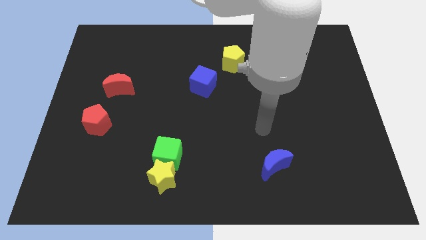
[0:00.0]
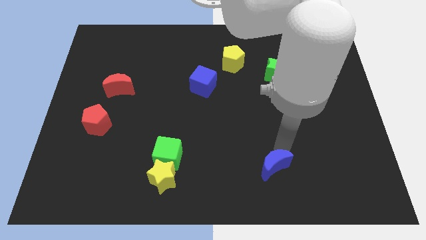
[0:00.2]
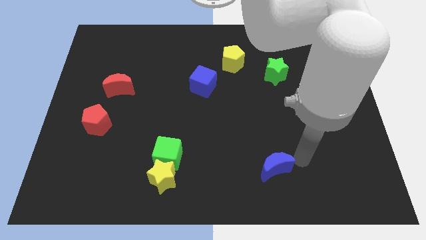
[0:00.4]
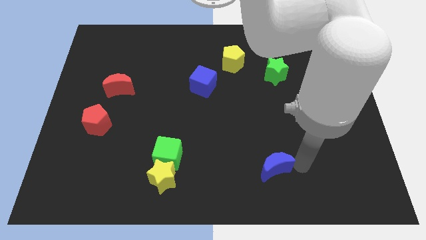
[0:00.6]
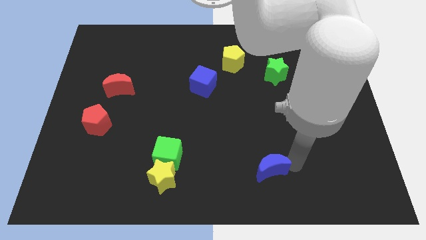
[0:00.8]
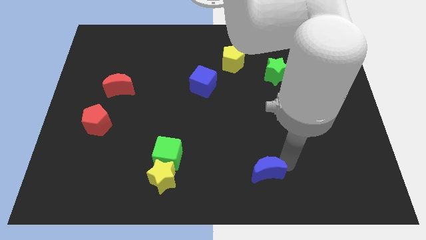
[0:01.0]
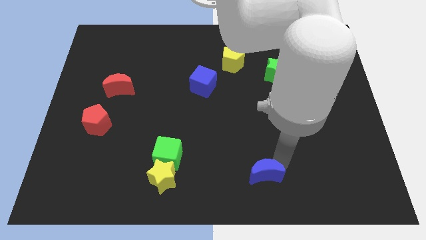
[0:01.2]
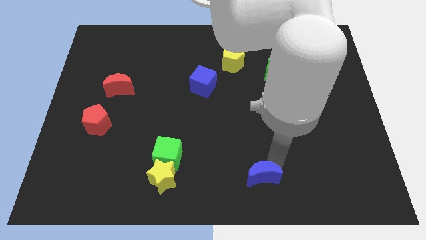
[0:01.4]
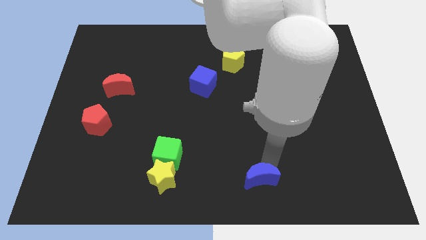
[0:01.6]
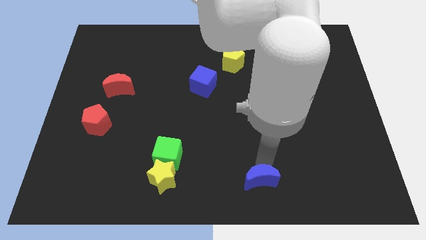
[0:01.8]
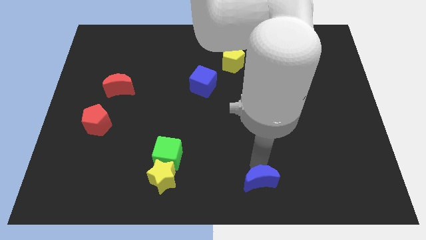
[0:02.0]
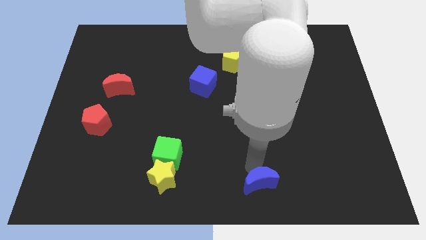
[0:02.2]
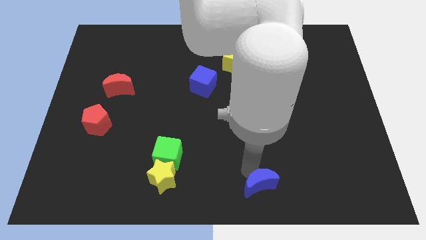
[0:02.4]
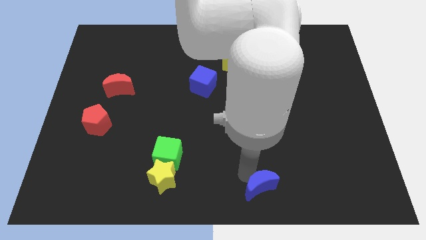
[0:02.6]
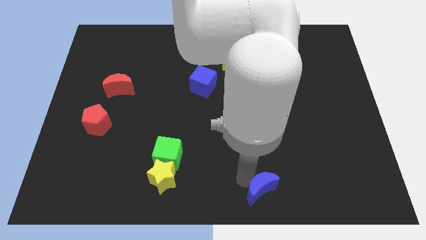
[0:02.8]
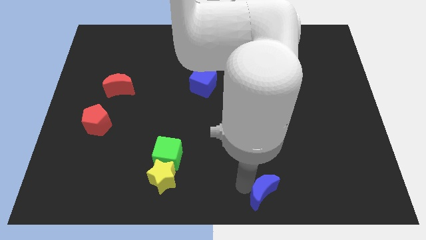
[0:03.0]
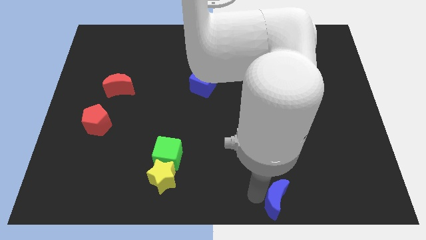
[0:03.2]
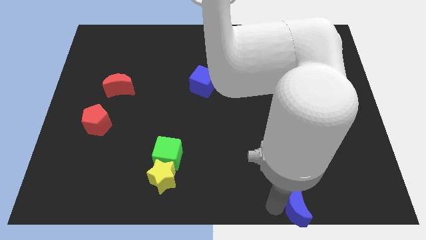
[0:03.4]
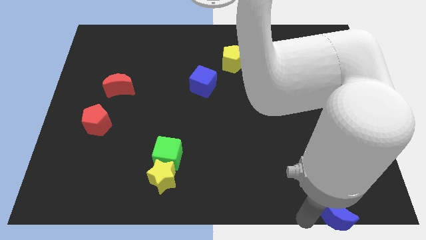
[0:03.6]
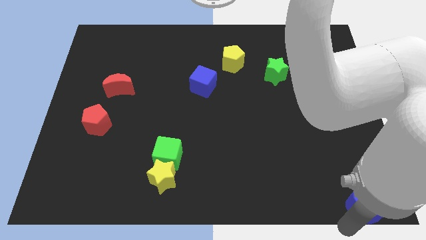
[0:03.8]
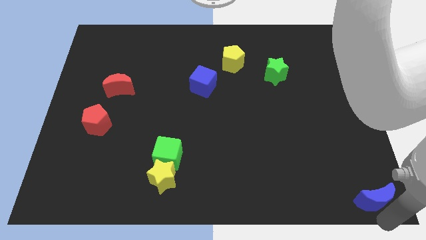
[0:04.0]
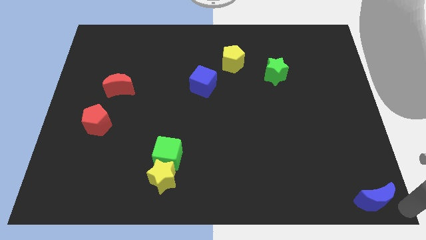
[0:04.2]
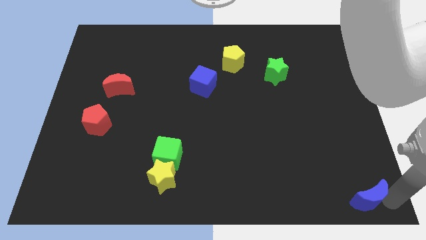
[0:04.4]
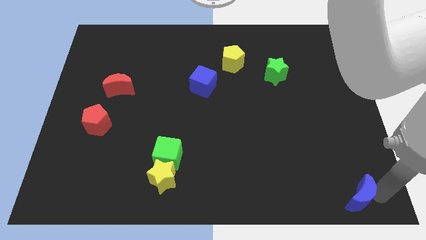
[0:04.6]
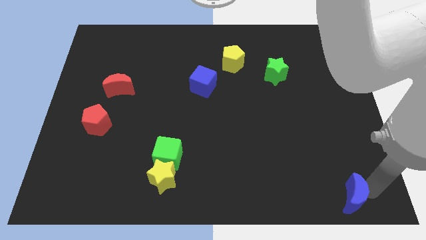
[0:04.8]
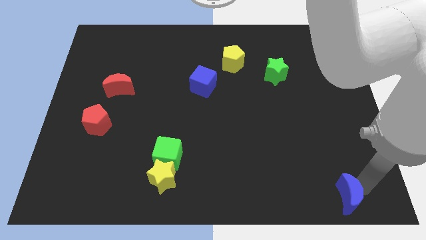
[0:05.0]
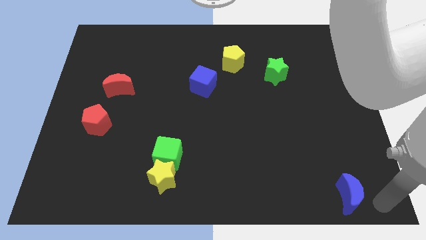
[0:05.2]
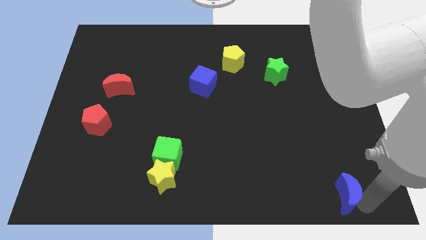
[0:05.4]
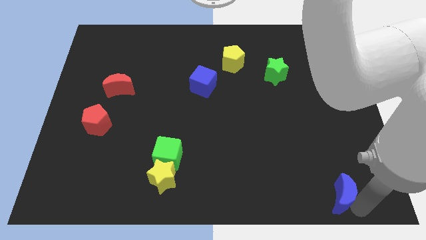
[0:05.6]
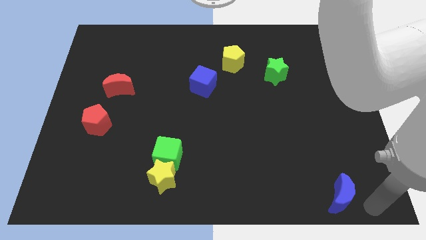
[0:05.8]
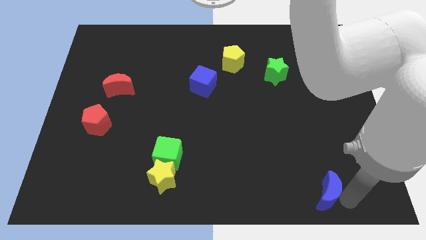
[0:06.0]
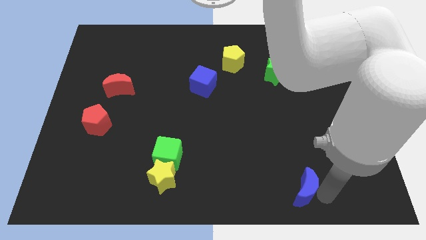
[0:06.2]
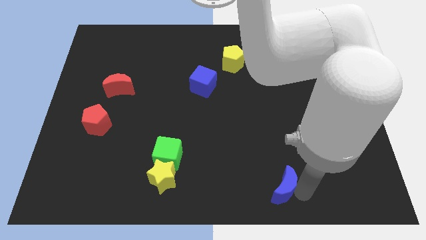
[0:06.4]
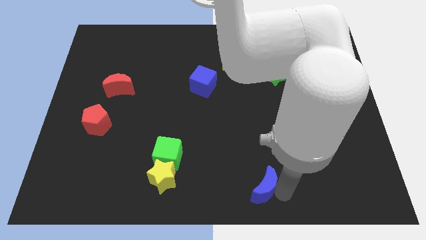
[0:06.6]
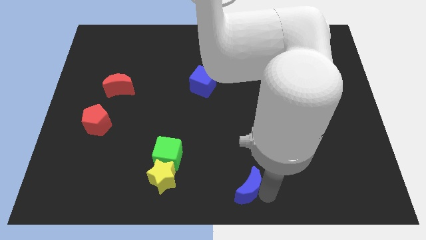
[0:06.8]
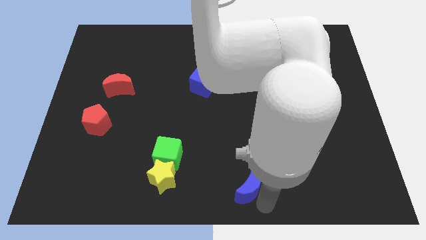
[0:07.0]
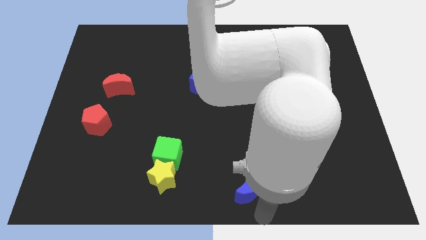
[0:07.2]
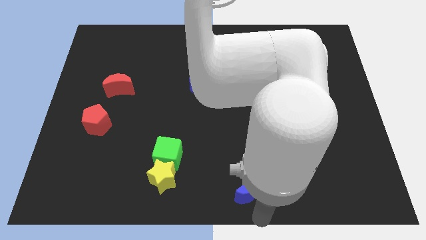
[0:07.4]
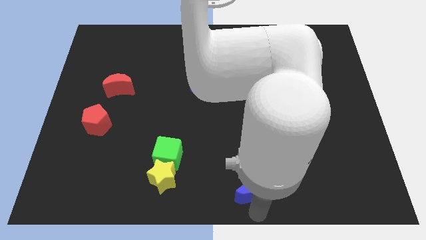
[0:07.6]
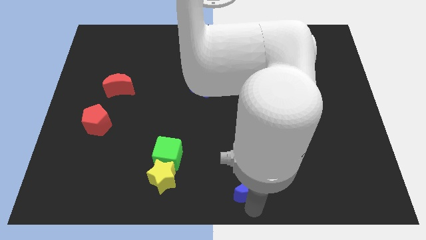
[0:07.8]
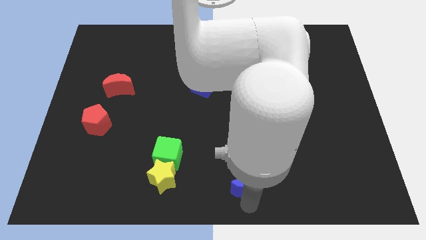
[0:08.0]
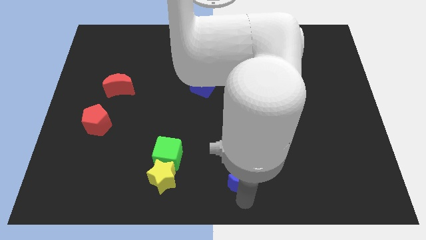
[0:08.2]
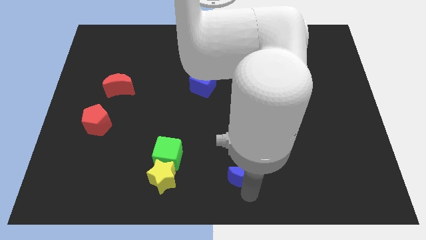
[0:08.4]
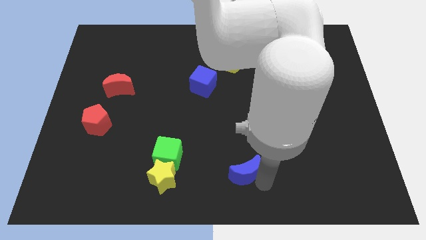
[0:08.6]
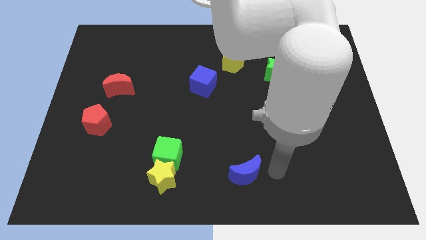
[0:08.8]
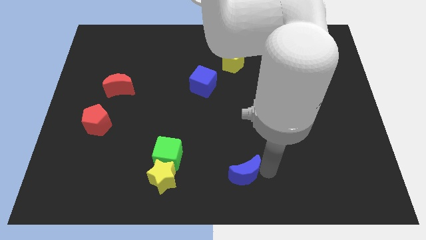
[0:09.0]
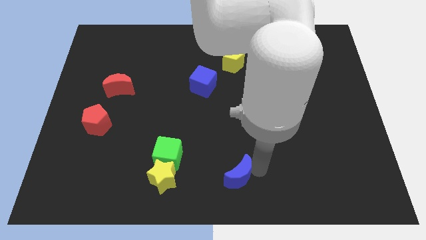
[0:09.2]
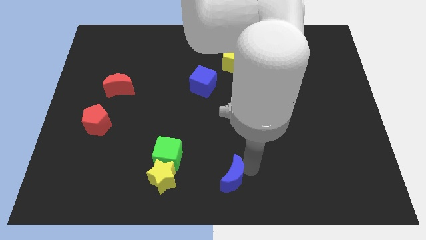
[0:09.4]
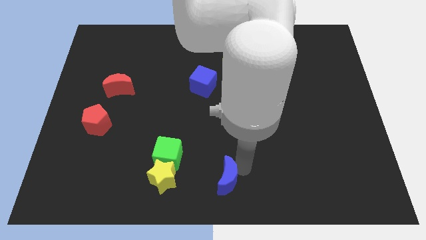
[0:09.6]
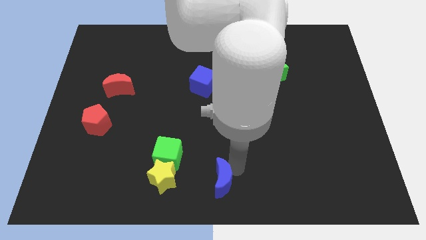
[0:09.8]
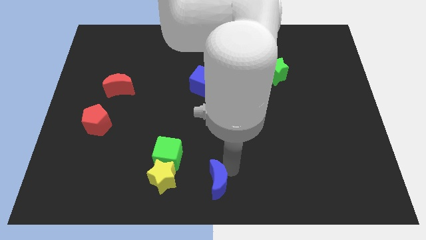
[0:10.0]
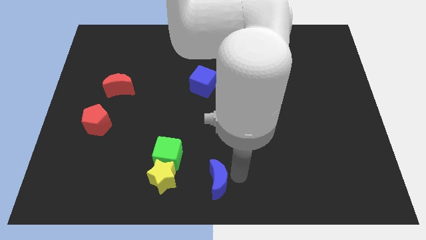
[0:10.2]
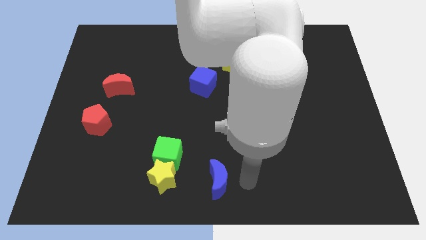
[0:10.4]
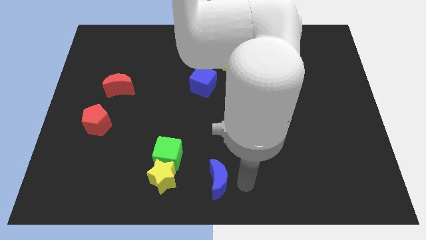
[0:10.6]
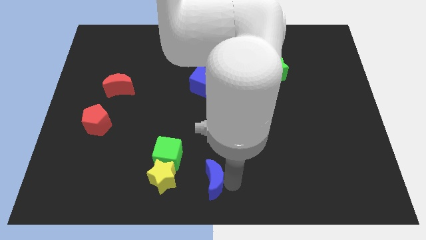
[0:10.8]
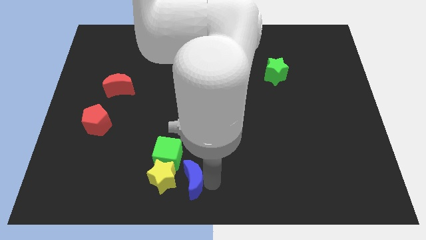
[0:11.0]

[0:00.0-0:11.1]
move the blue moon to the yellow star

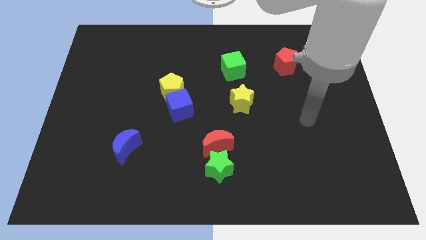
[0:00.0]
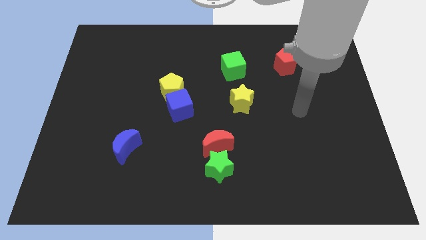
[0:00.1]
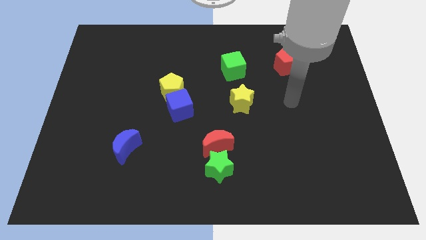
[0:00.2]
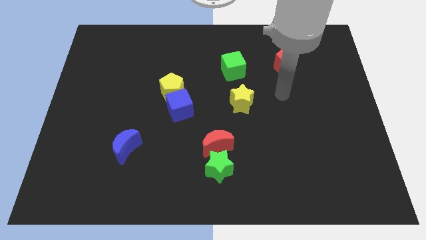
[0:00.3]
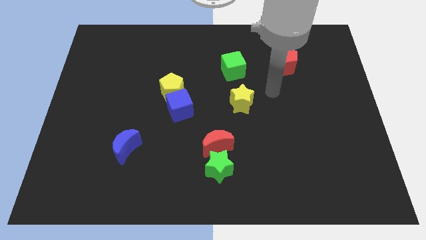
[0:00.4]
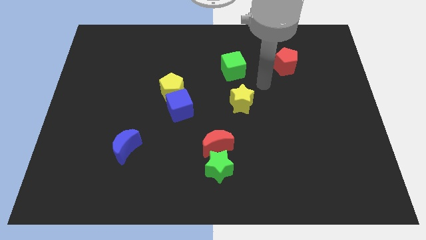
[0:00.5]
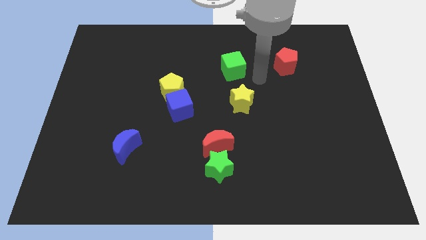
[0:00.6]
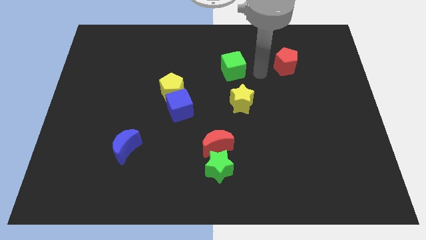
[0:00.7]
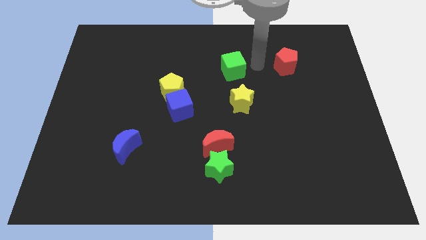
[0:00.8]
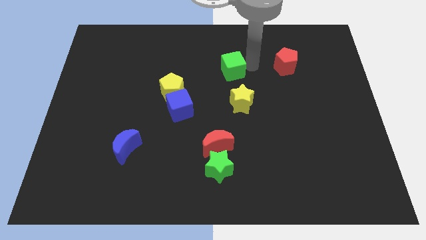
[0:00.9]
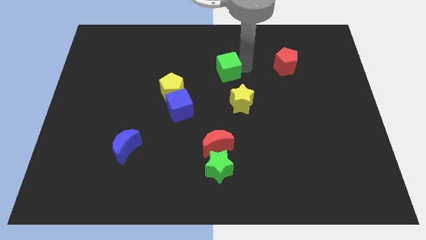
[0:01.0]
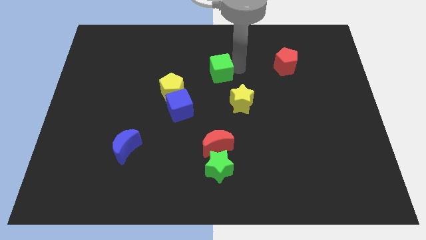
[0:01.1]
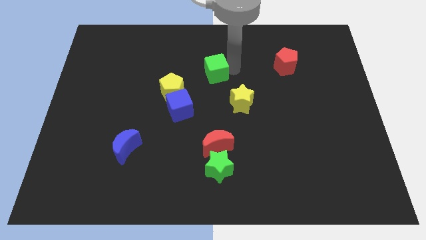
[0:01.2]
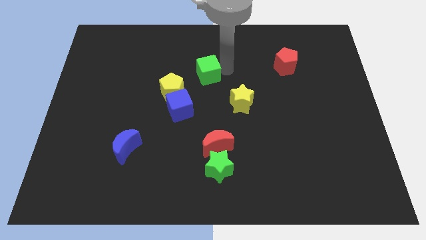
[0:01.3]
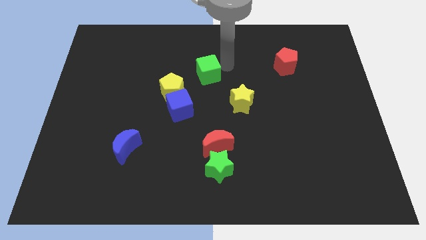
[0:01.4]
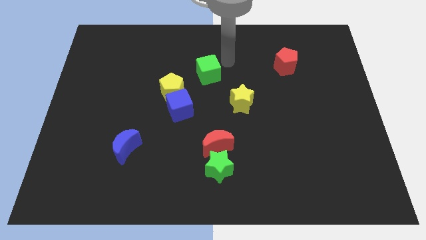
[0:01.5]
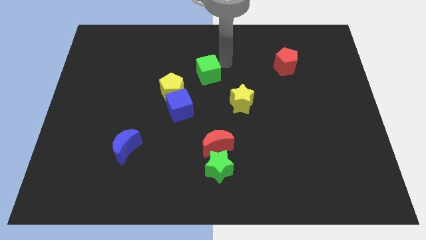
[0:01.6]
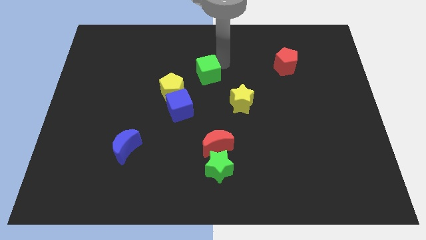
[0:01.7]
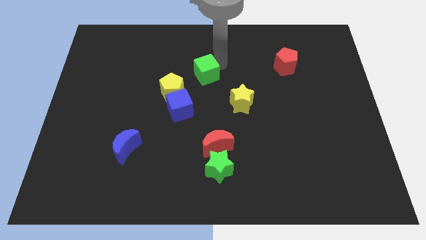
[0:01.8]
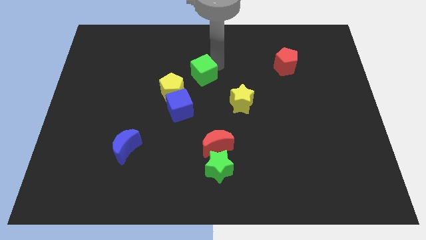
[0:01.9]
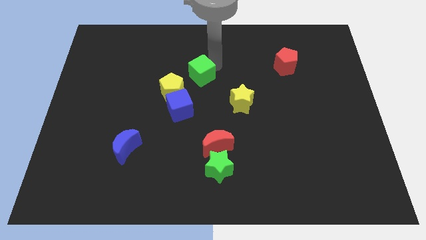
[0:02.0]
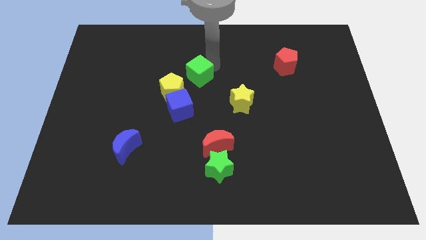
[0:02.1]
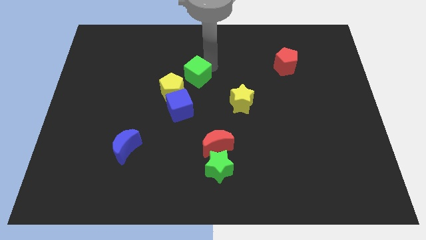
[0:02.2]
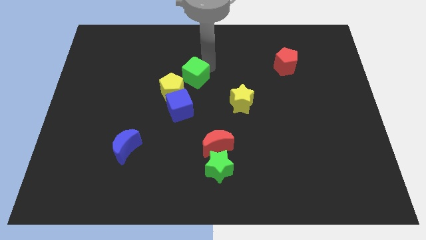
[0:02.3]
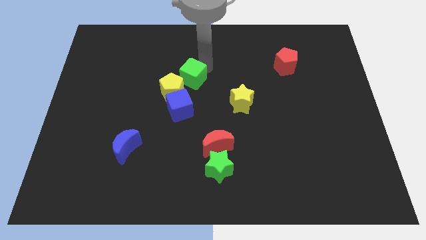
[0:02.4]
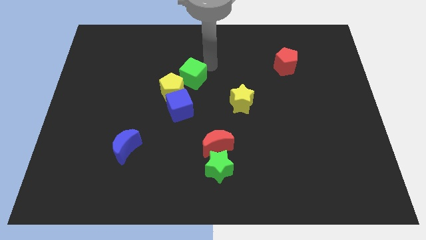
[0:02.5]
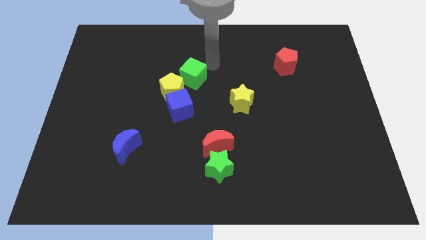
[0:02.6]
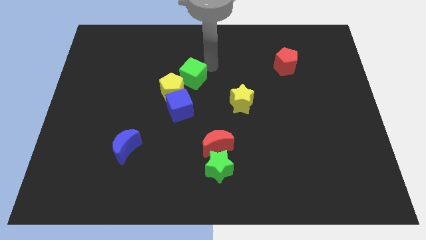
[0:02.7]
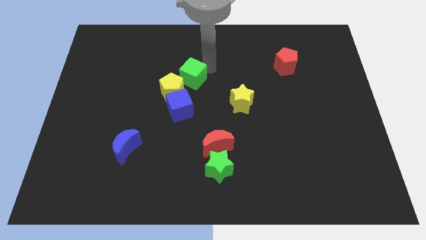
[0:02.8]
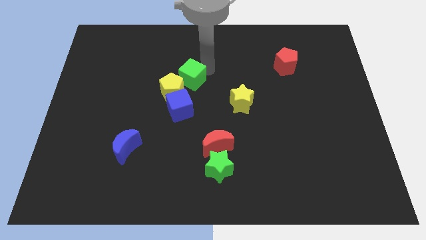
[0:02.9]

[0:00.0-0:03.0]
put the green cube next to the yellow pentagon
